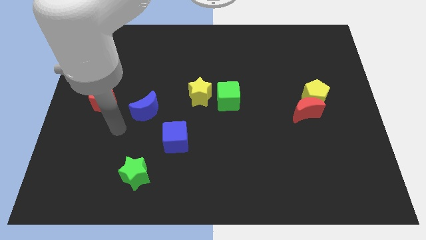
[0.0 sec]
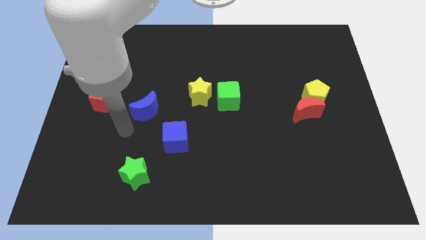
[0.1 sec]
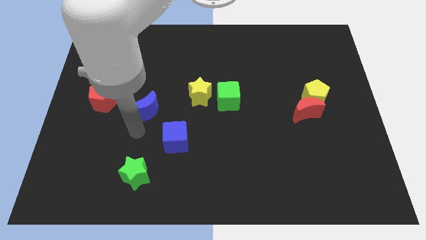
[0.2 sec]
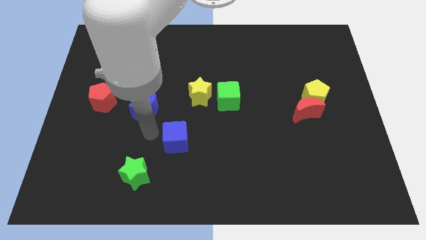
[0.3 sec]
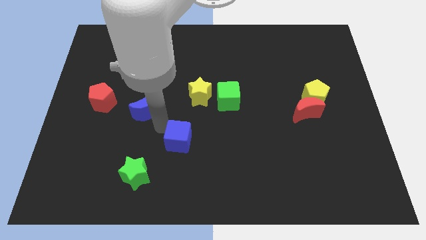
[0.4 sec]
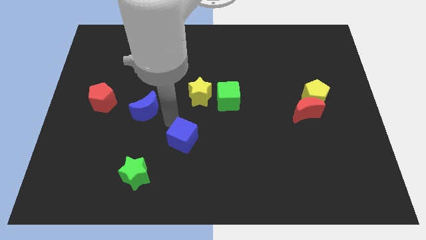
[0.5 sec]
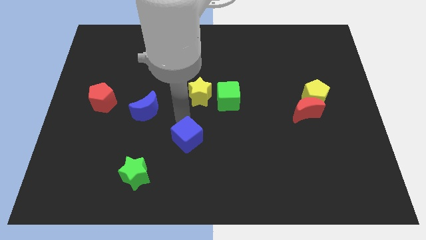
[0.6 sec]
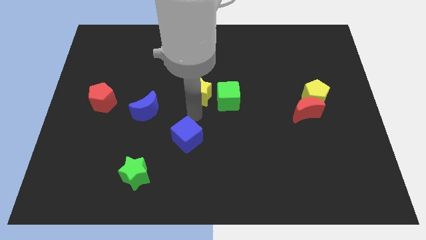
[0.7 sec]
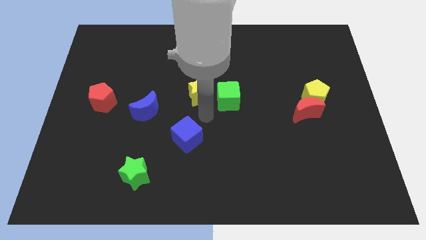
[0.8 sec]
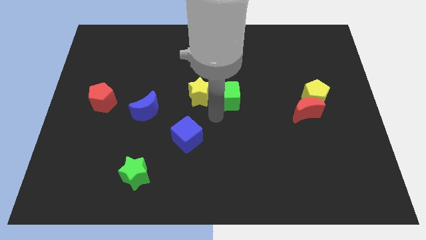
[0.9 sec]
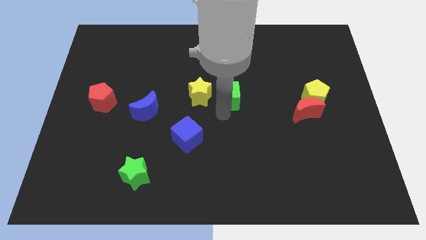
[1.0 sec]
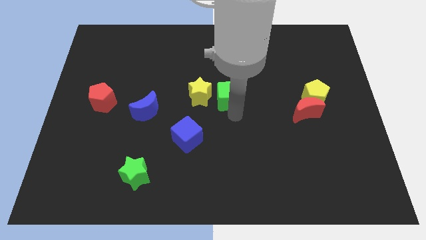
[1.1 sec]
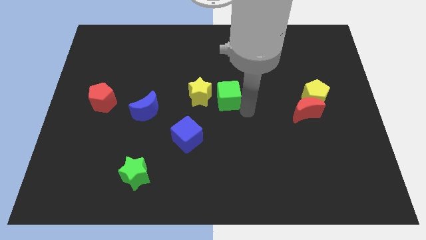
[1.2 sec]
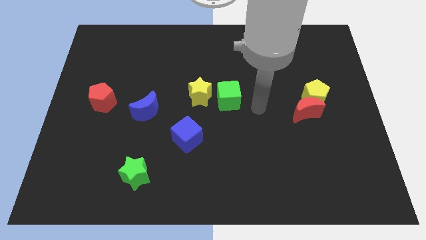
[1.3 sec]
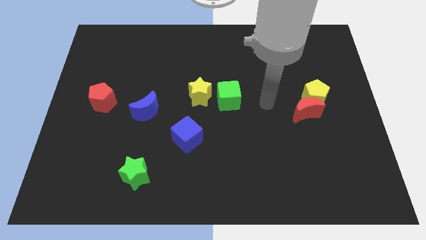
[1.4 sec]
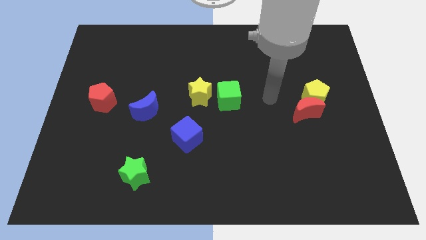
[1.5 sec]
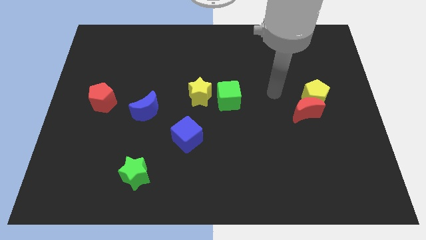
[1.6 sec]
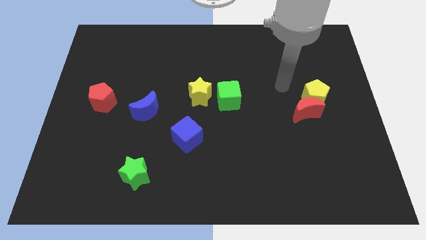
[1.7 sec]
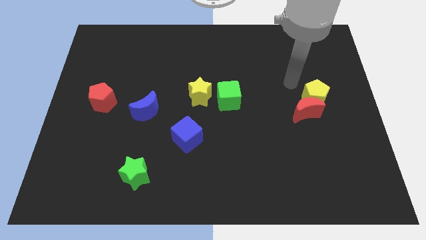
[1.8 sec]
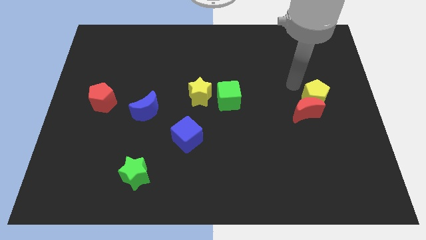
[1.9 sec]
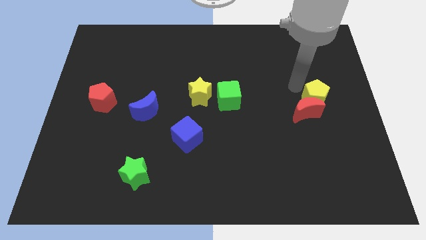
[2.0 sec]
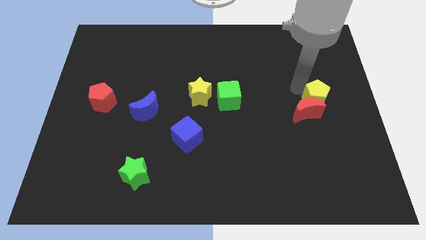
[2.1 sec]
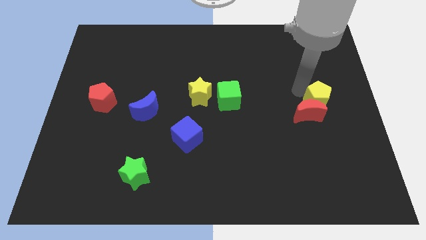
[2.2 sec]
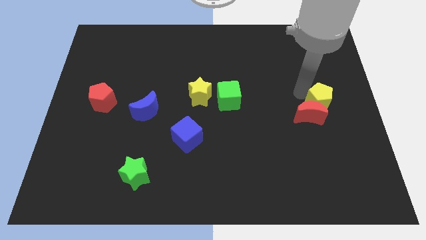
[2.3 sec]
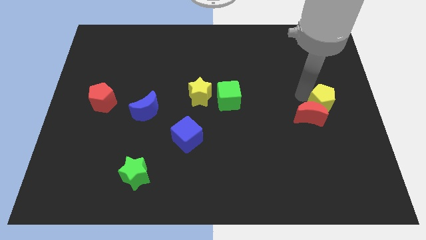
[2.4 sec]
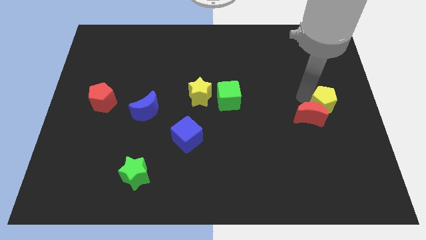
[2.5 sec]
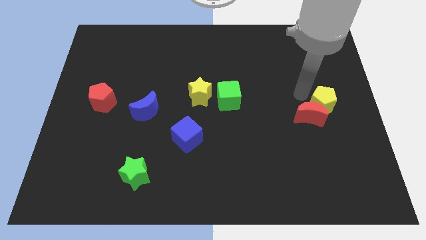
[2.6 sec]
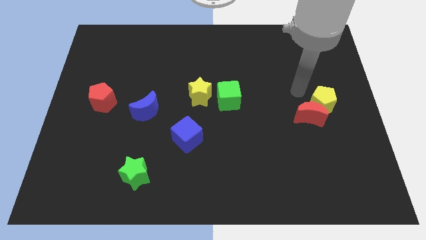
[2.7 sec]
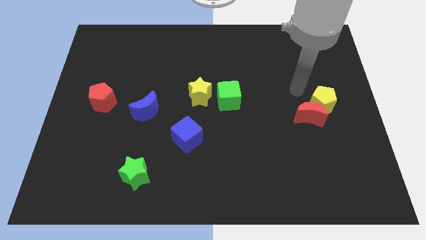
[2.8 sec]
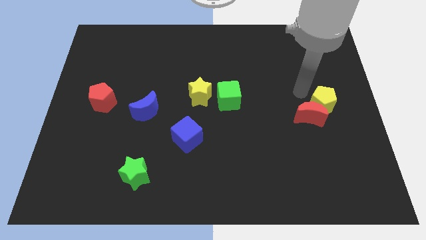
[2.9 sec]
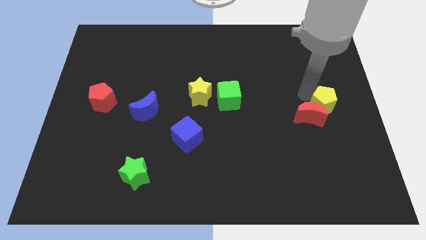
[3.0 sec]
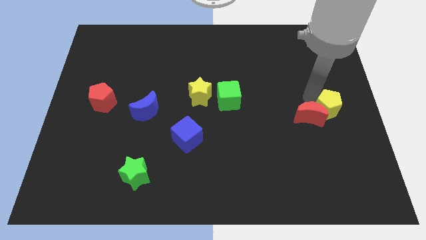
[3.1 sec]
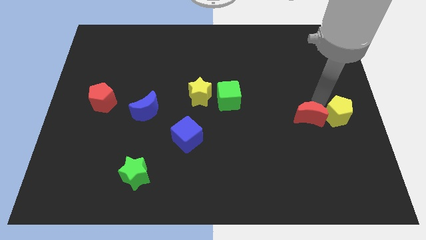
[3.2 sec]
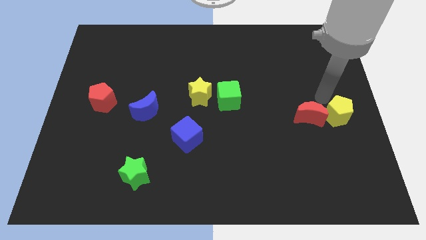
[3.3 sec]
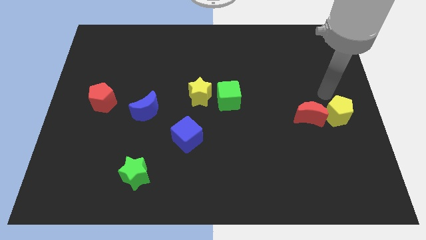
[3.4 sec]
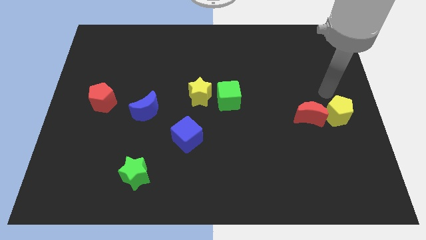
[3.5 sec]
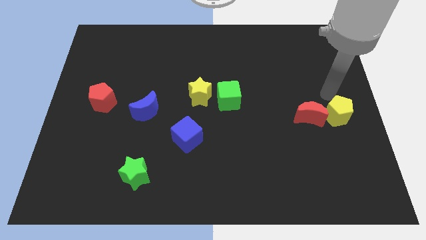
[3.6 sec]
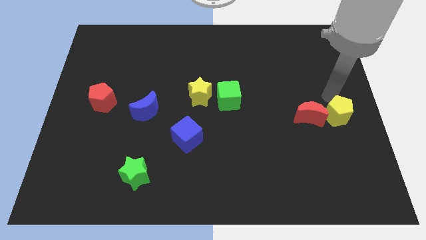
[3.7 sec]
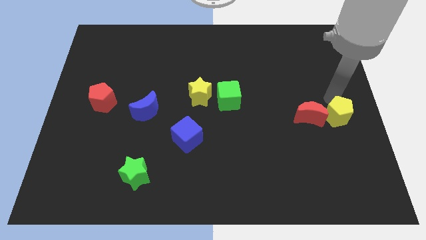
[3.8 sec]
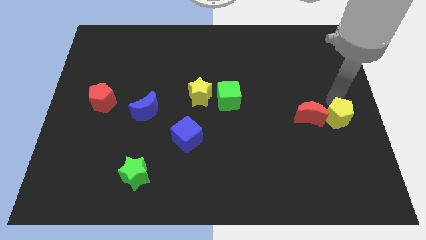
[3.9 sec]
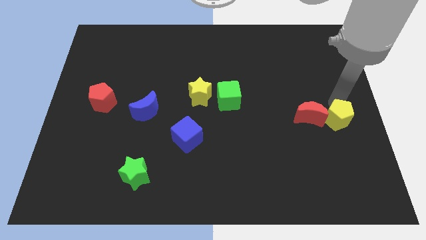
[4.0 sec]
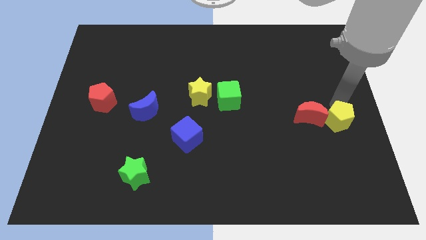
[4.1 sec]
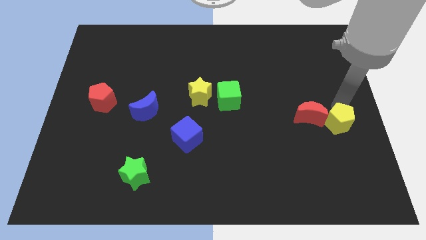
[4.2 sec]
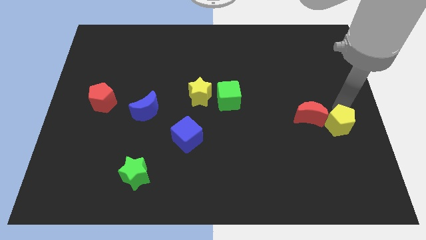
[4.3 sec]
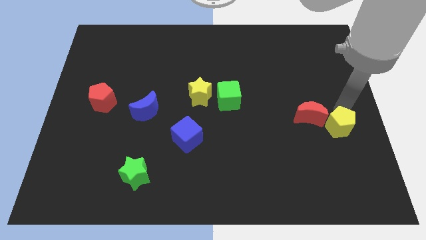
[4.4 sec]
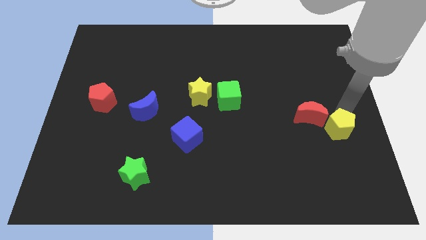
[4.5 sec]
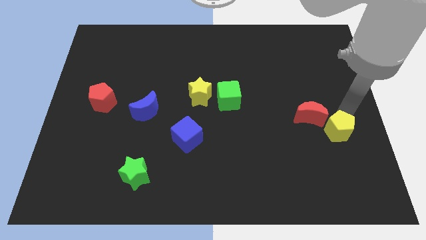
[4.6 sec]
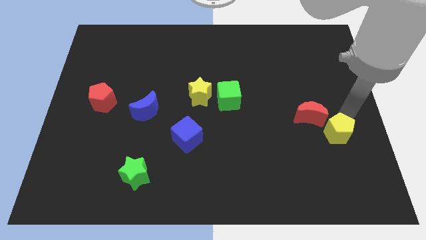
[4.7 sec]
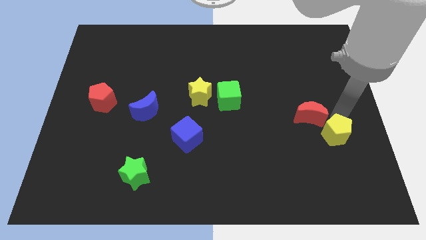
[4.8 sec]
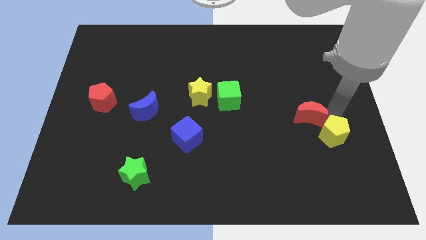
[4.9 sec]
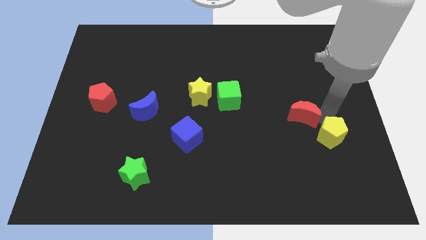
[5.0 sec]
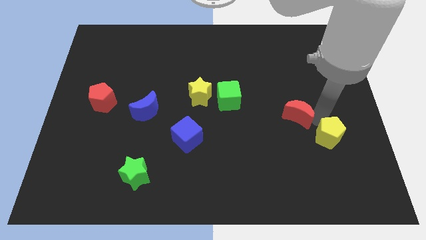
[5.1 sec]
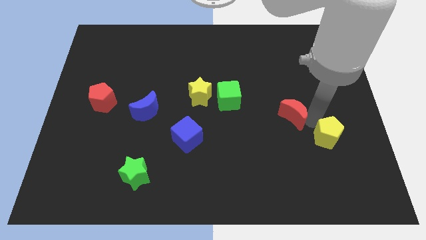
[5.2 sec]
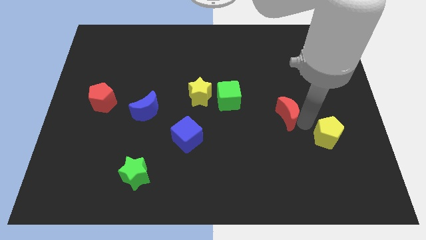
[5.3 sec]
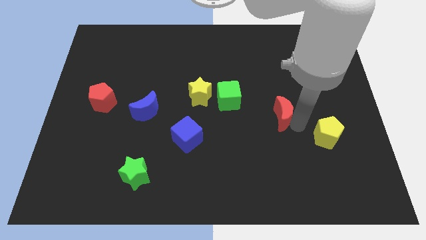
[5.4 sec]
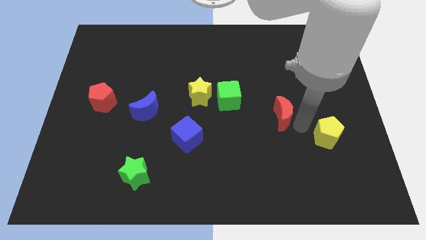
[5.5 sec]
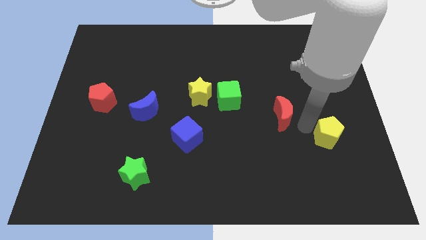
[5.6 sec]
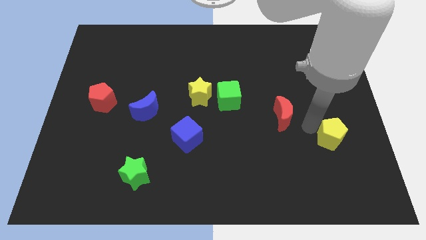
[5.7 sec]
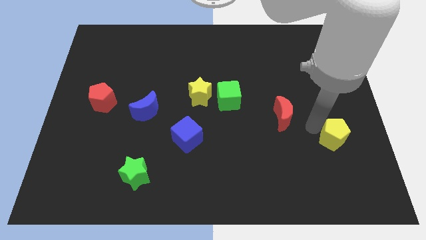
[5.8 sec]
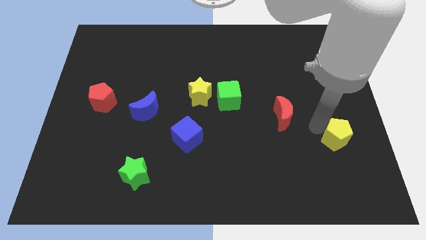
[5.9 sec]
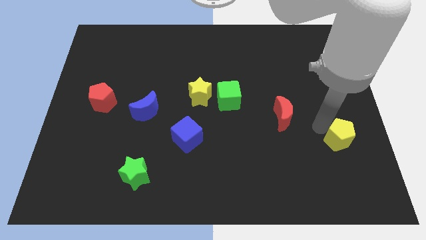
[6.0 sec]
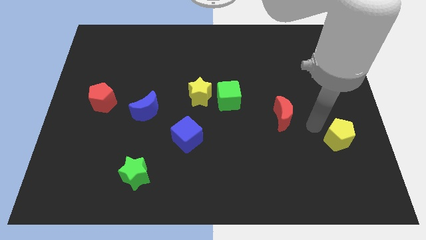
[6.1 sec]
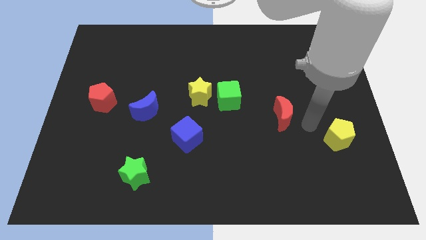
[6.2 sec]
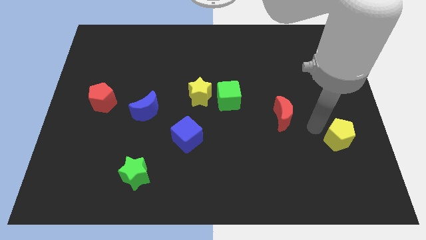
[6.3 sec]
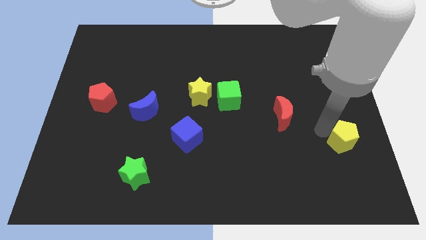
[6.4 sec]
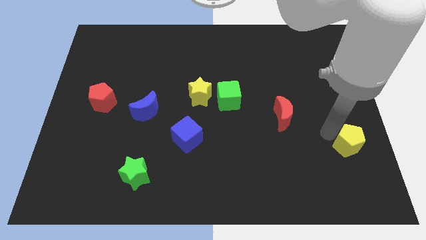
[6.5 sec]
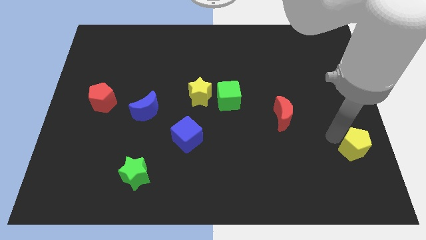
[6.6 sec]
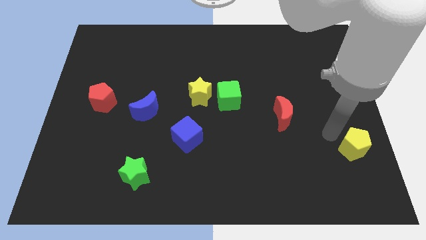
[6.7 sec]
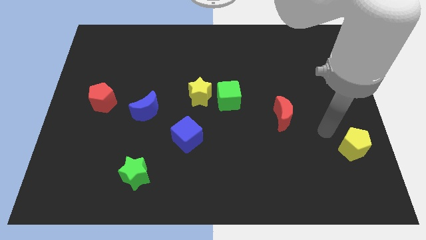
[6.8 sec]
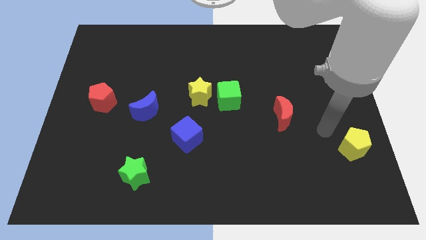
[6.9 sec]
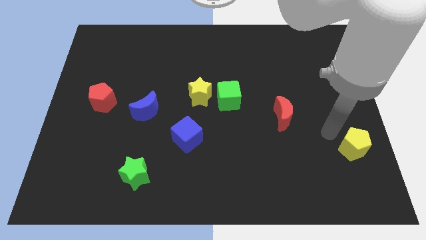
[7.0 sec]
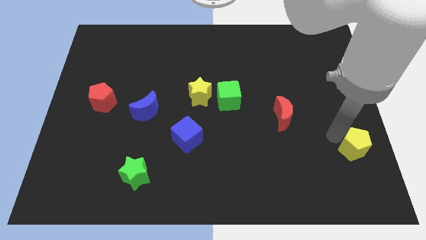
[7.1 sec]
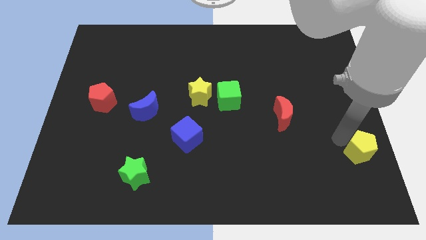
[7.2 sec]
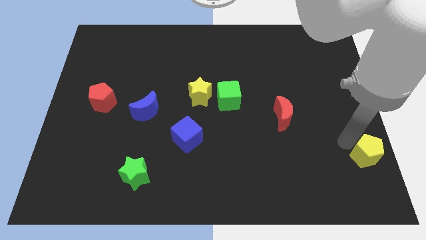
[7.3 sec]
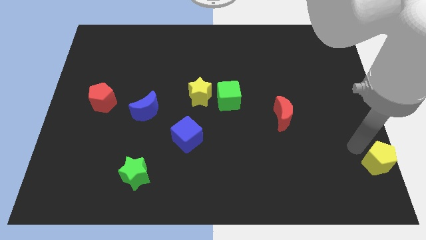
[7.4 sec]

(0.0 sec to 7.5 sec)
push the yellow pentagon to the bottom right corner

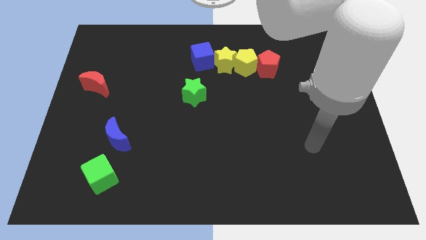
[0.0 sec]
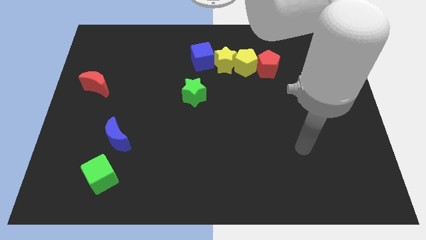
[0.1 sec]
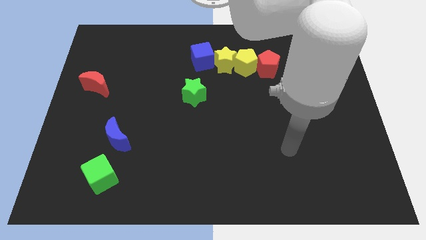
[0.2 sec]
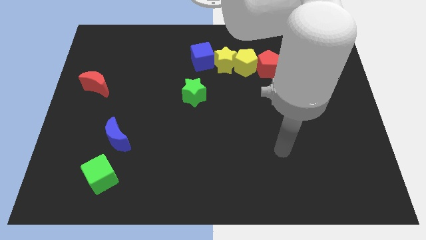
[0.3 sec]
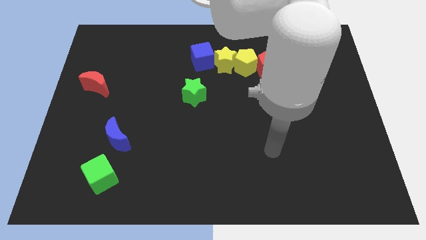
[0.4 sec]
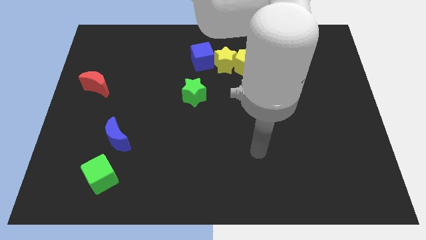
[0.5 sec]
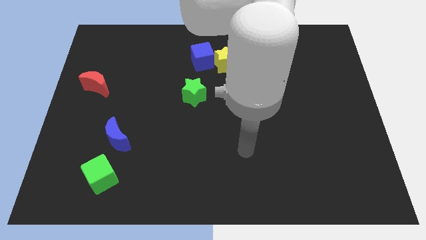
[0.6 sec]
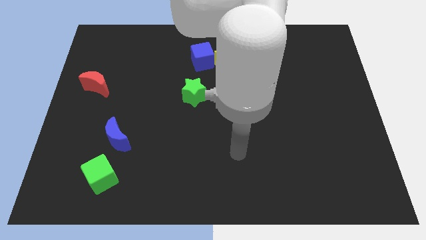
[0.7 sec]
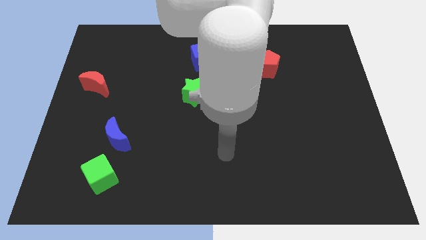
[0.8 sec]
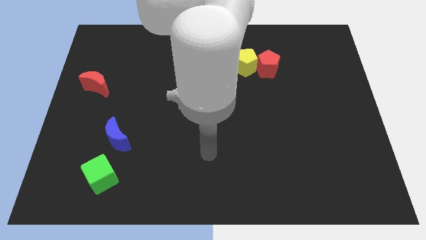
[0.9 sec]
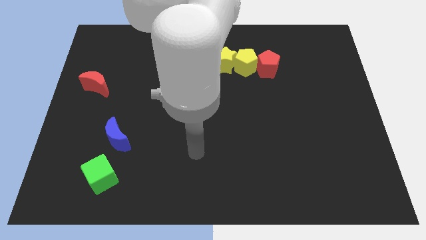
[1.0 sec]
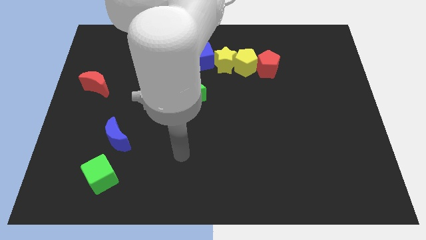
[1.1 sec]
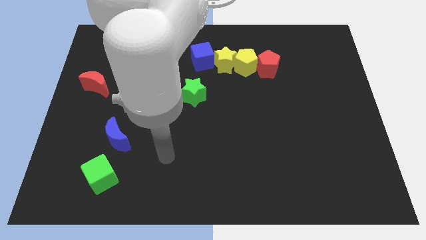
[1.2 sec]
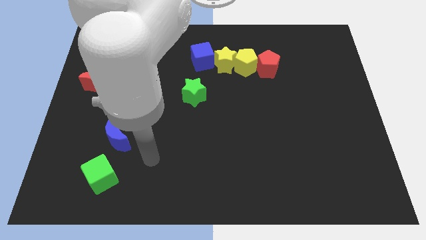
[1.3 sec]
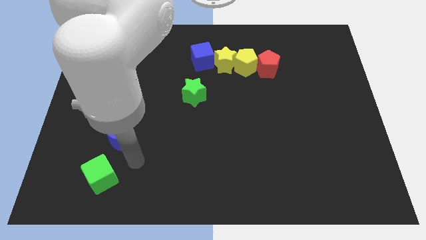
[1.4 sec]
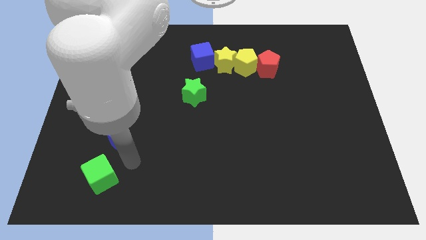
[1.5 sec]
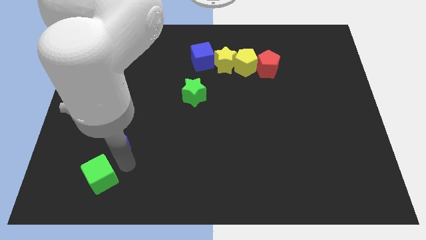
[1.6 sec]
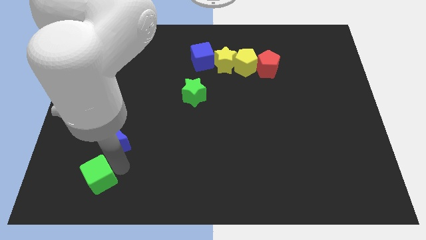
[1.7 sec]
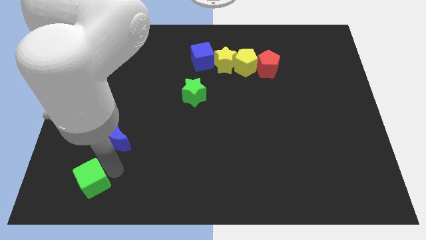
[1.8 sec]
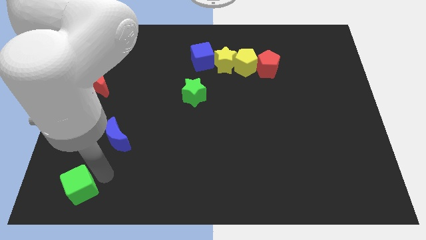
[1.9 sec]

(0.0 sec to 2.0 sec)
slide the green cube to the bottom left
